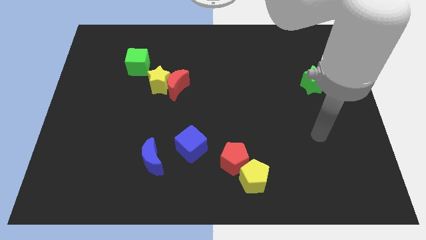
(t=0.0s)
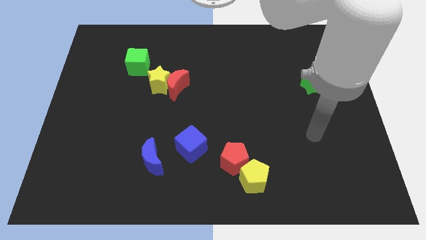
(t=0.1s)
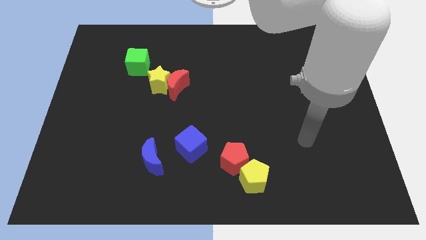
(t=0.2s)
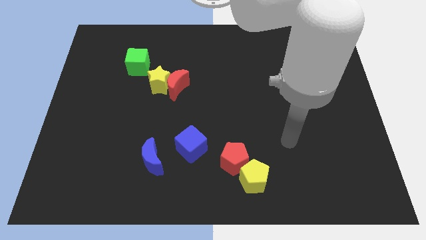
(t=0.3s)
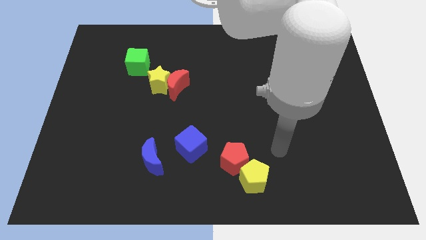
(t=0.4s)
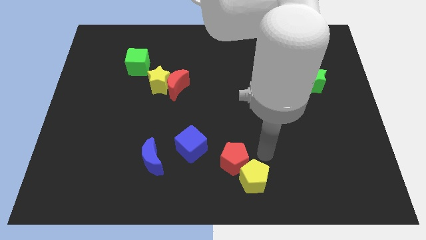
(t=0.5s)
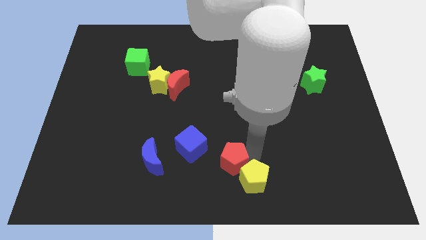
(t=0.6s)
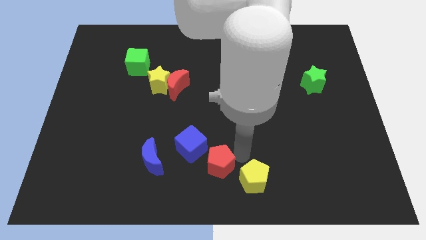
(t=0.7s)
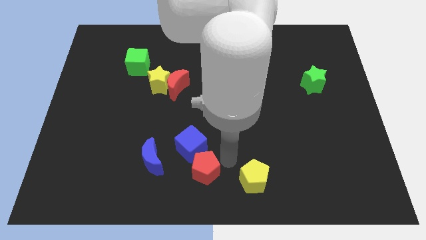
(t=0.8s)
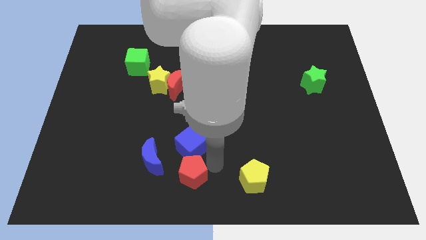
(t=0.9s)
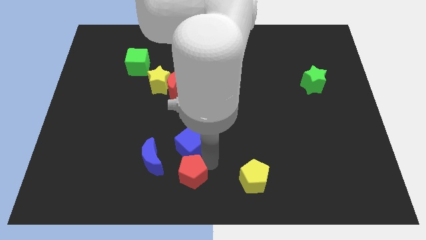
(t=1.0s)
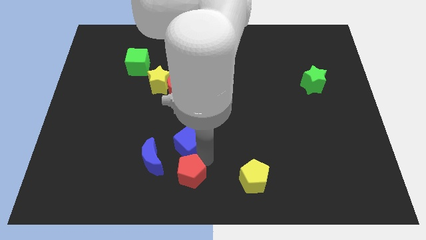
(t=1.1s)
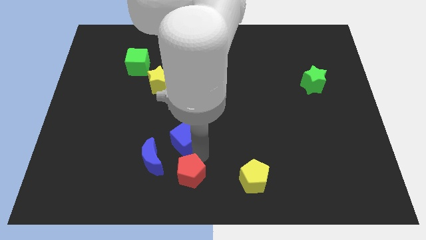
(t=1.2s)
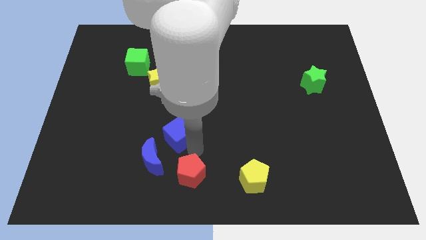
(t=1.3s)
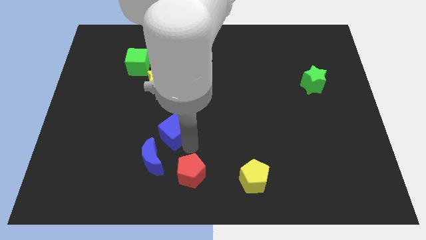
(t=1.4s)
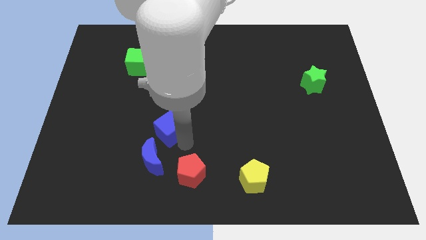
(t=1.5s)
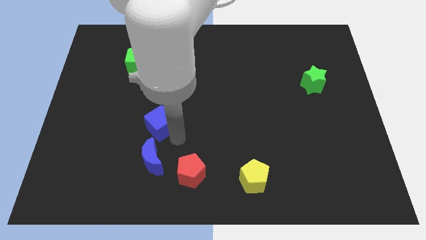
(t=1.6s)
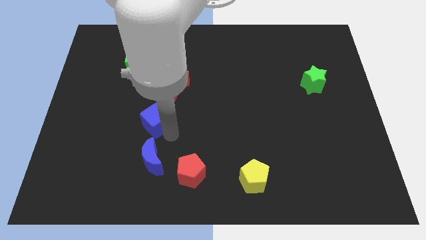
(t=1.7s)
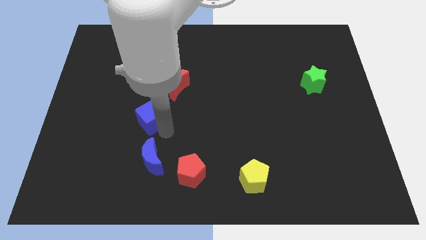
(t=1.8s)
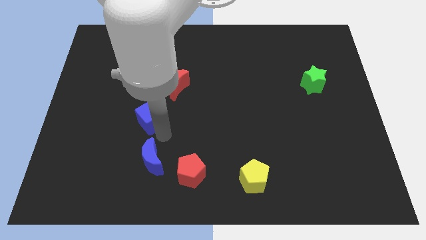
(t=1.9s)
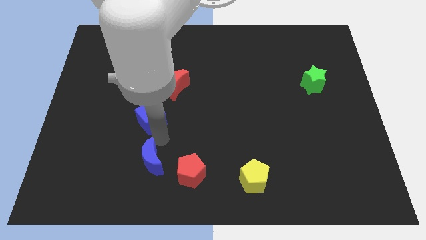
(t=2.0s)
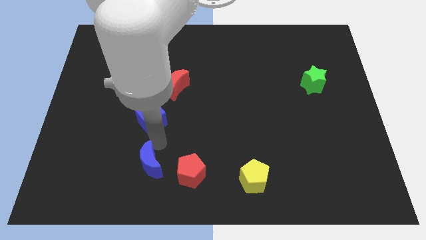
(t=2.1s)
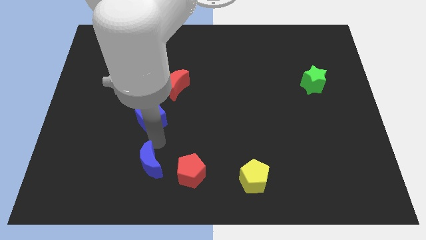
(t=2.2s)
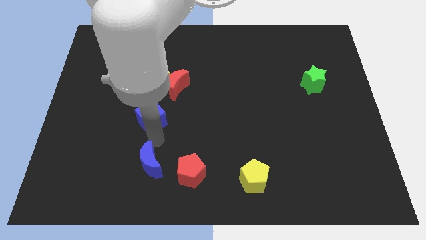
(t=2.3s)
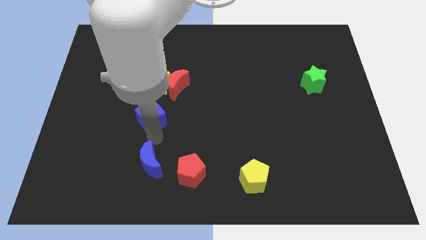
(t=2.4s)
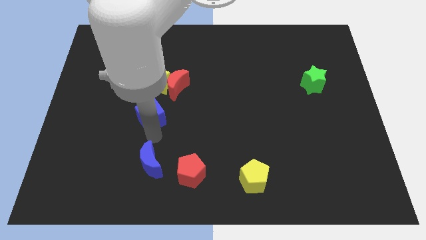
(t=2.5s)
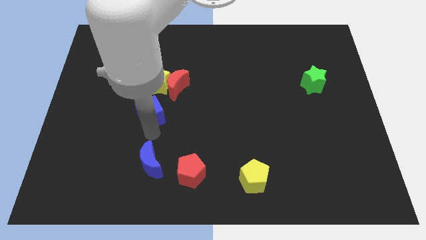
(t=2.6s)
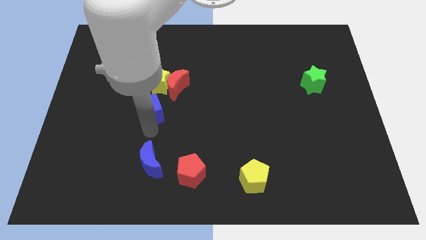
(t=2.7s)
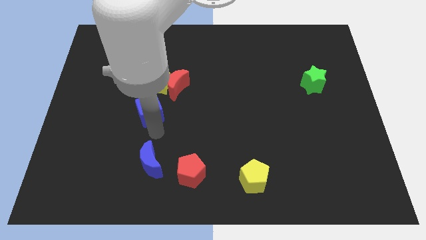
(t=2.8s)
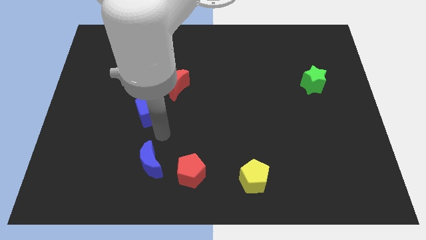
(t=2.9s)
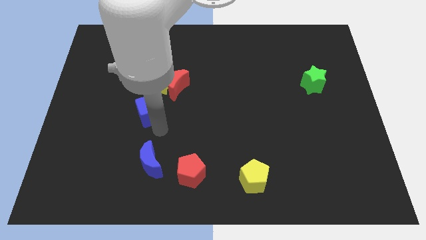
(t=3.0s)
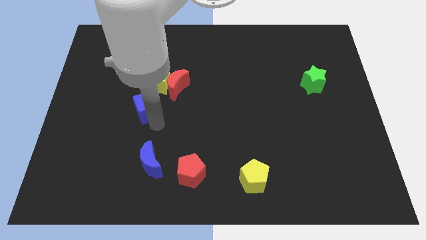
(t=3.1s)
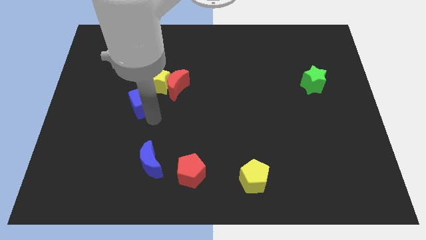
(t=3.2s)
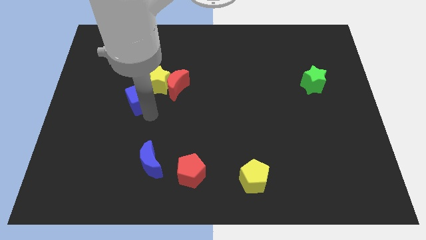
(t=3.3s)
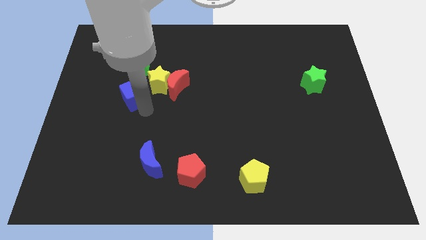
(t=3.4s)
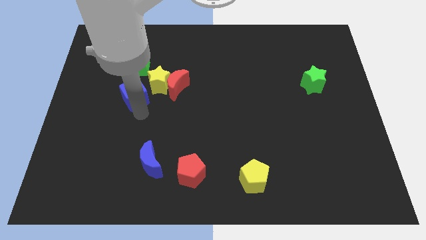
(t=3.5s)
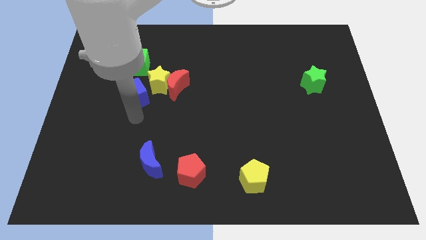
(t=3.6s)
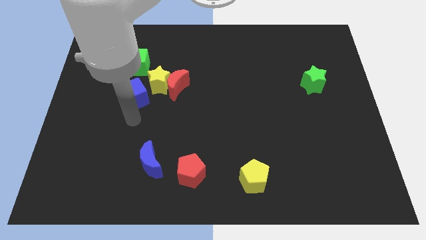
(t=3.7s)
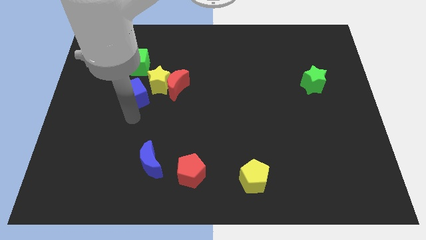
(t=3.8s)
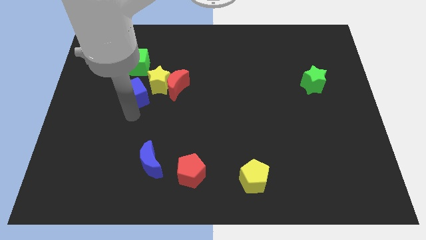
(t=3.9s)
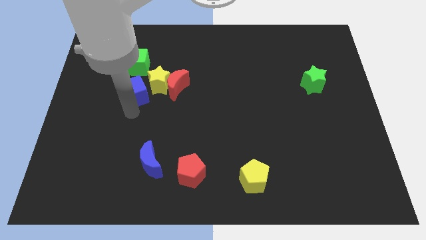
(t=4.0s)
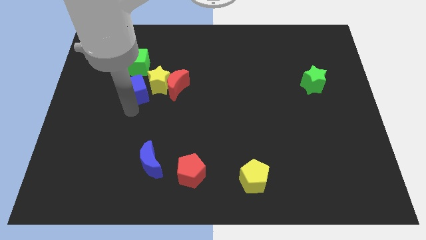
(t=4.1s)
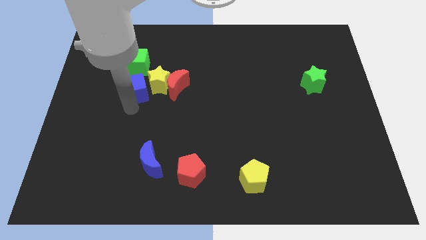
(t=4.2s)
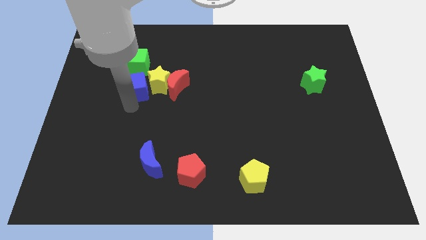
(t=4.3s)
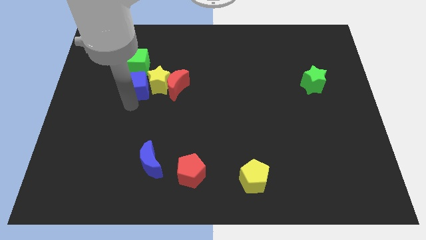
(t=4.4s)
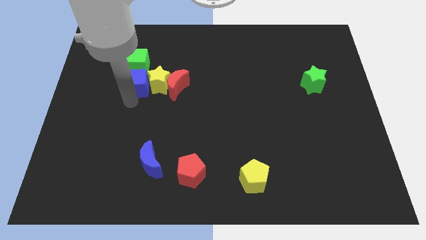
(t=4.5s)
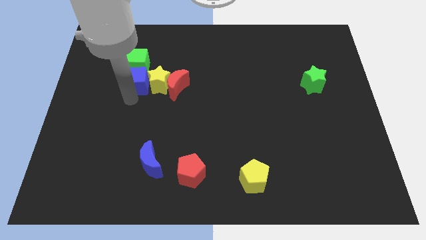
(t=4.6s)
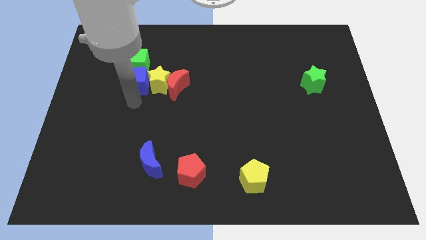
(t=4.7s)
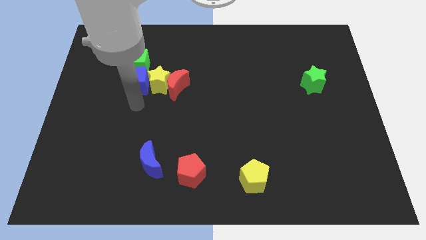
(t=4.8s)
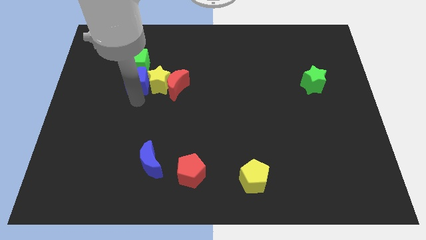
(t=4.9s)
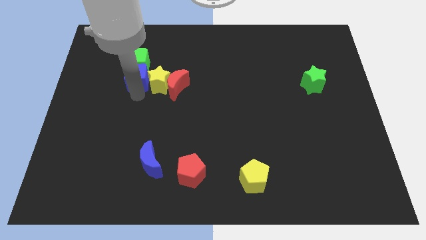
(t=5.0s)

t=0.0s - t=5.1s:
push the blue cube to the green cube

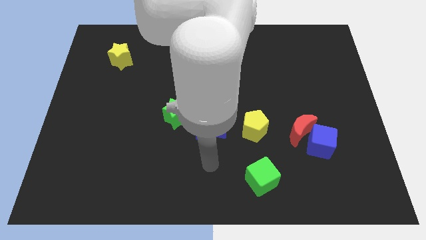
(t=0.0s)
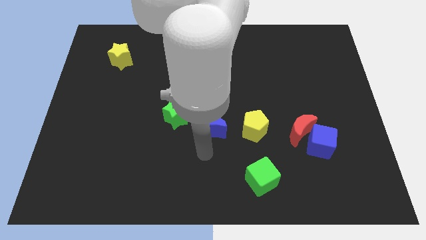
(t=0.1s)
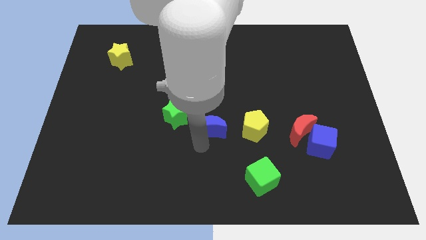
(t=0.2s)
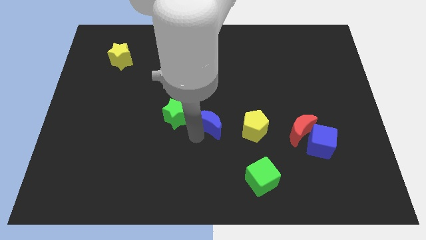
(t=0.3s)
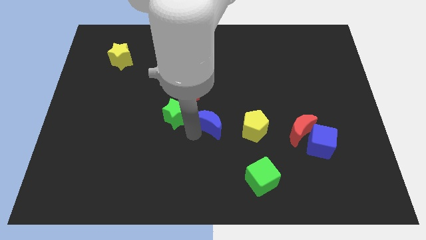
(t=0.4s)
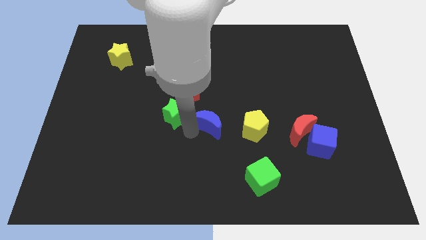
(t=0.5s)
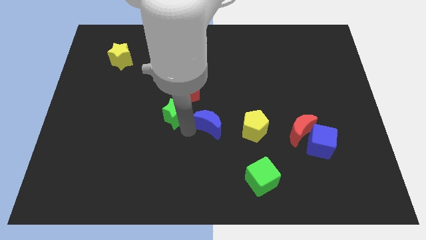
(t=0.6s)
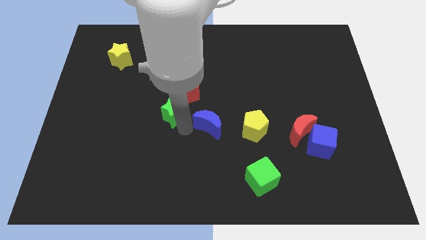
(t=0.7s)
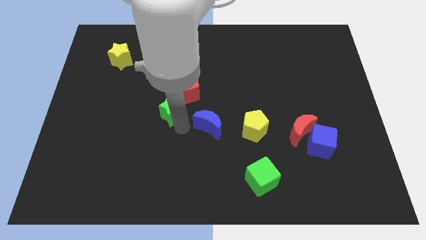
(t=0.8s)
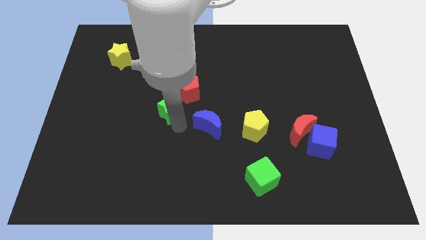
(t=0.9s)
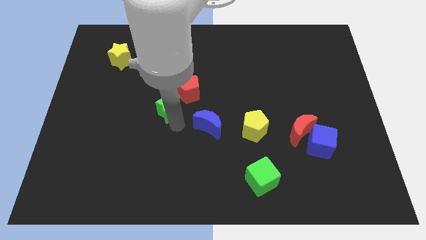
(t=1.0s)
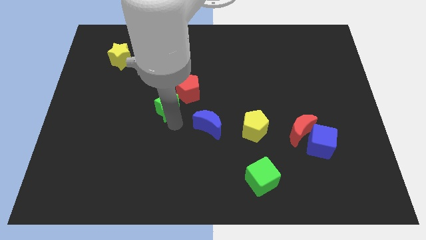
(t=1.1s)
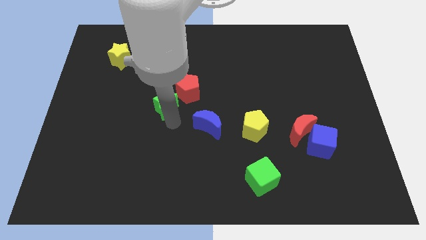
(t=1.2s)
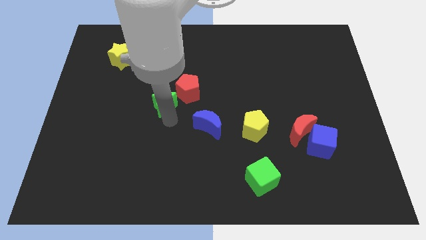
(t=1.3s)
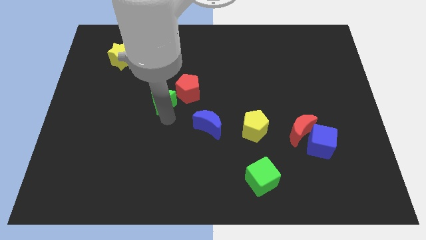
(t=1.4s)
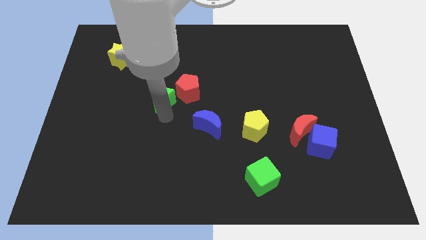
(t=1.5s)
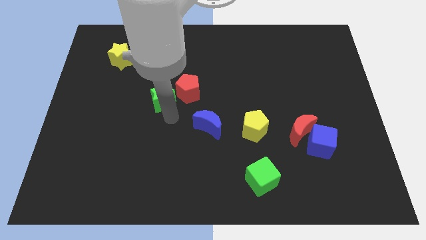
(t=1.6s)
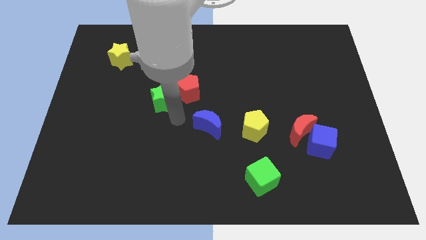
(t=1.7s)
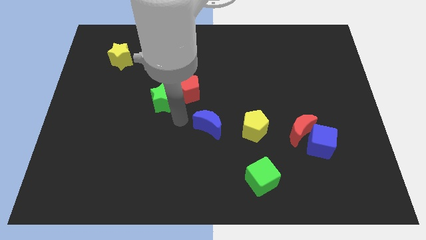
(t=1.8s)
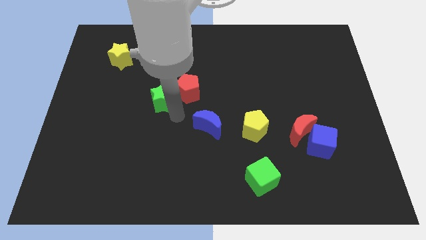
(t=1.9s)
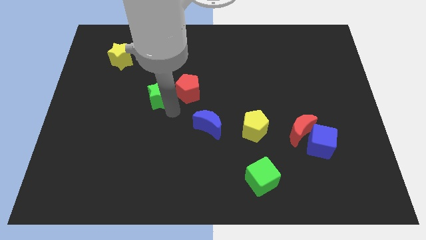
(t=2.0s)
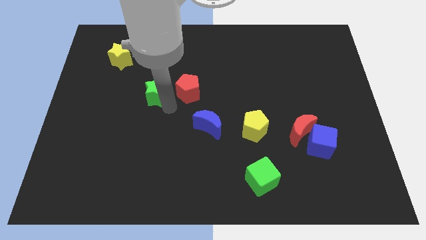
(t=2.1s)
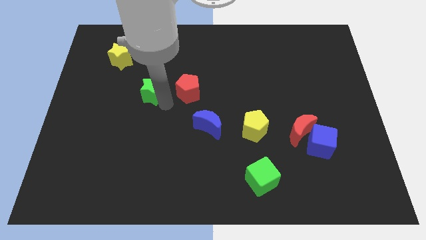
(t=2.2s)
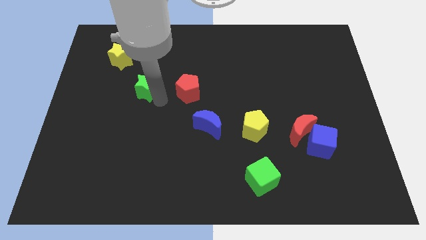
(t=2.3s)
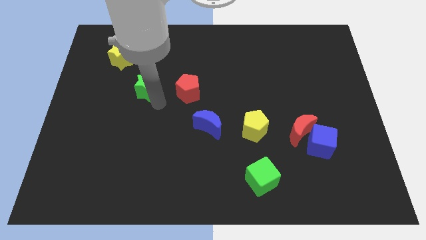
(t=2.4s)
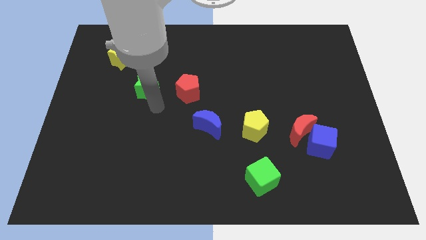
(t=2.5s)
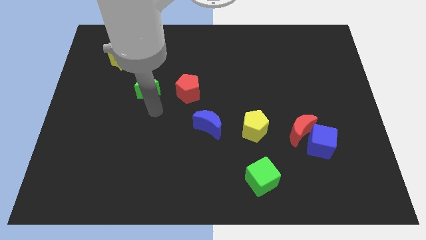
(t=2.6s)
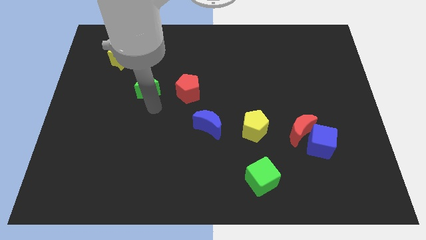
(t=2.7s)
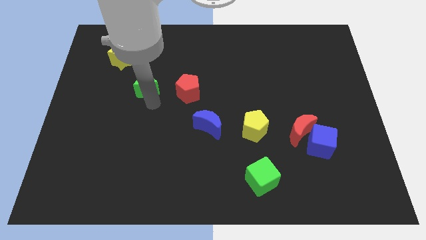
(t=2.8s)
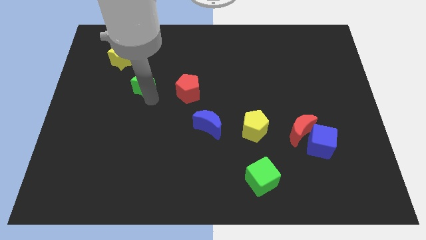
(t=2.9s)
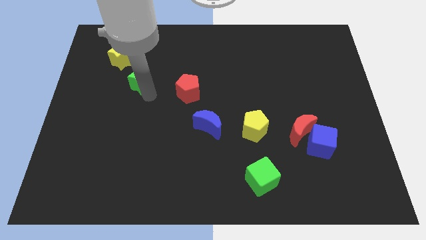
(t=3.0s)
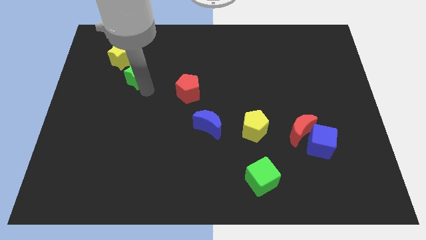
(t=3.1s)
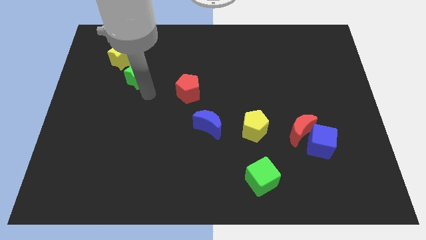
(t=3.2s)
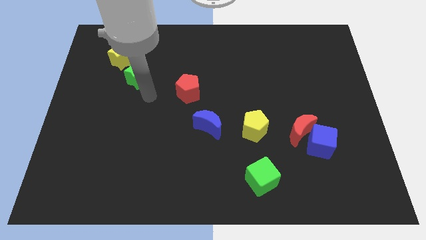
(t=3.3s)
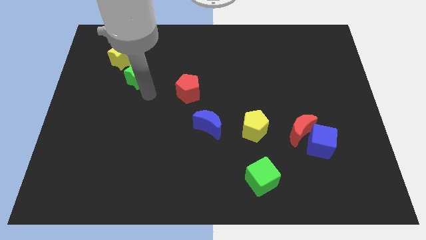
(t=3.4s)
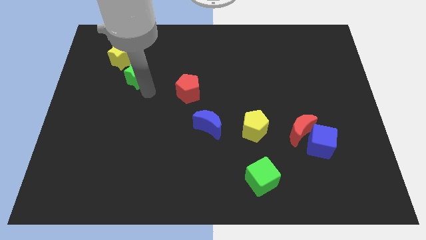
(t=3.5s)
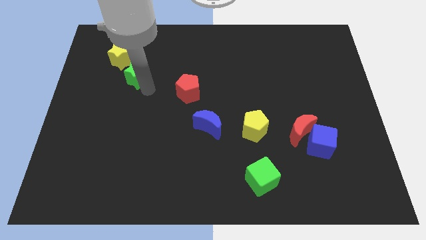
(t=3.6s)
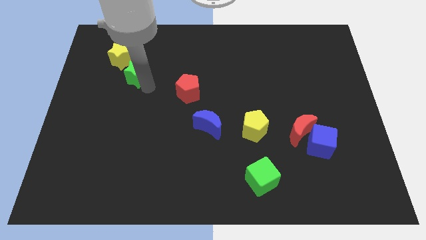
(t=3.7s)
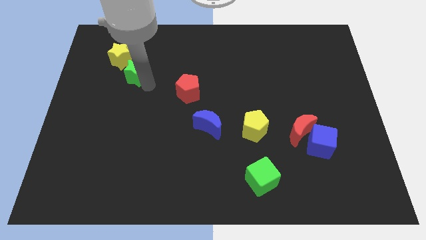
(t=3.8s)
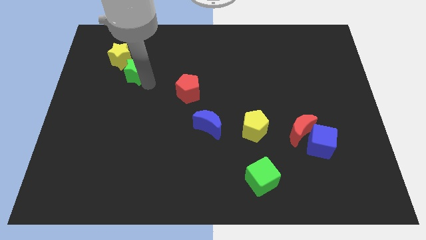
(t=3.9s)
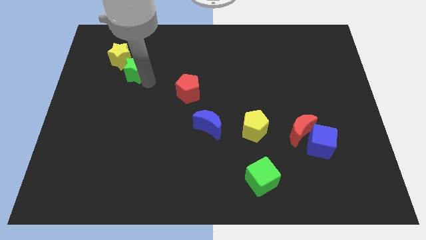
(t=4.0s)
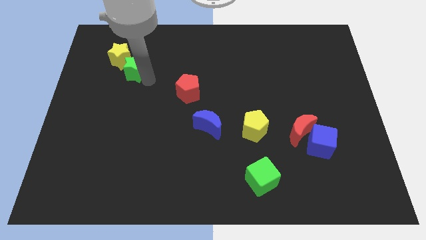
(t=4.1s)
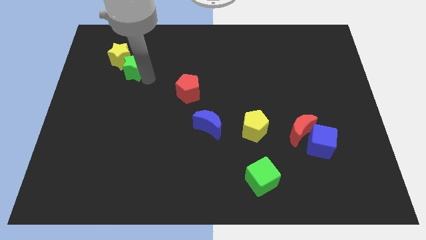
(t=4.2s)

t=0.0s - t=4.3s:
slide the green star next to the yellow star
